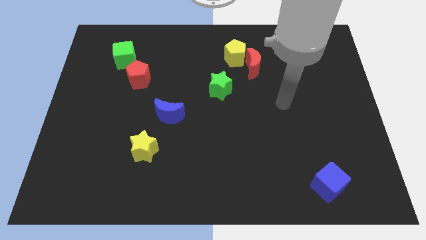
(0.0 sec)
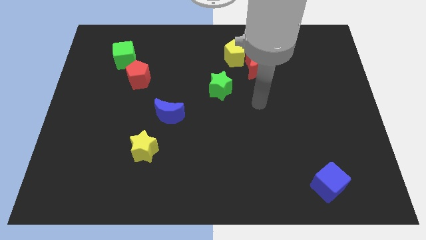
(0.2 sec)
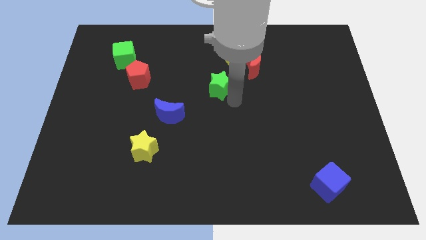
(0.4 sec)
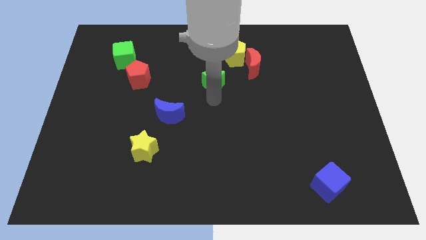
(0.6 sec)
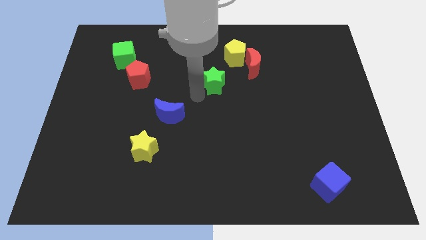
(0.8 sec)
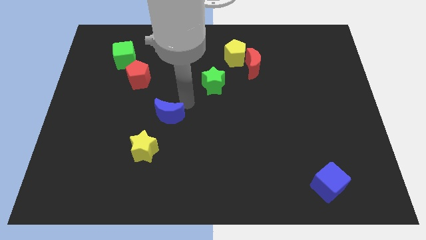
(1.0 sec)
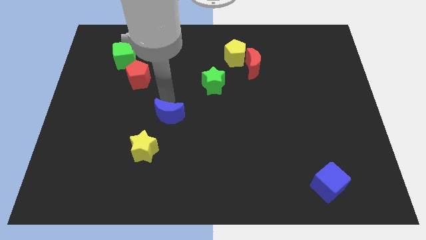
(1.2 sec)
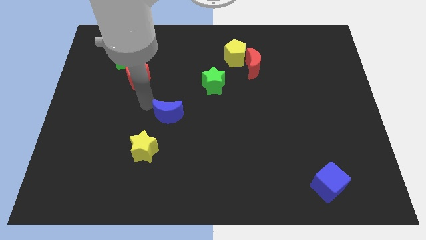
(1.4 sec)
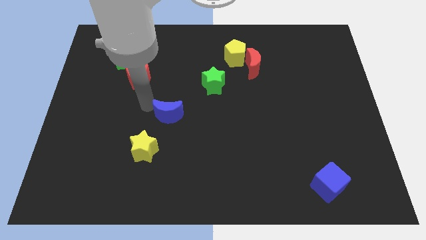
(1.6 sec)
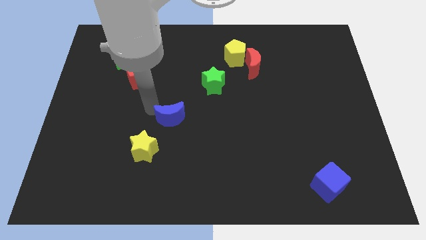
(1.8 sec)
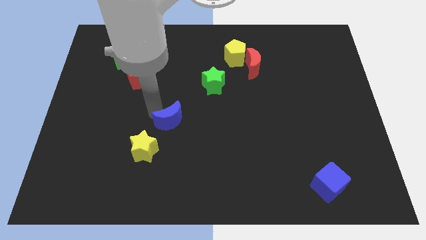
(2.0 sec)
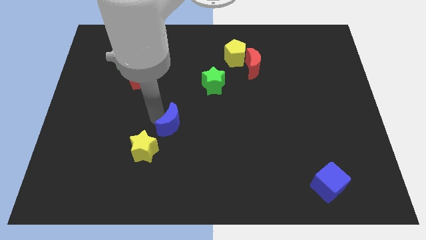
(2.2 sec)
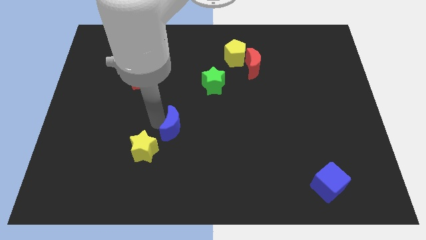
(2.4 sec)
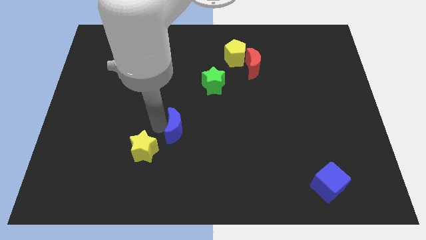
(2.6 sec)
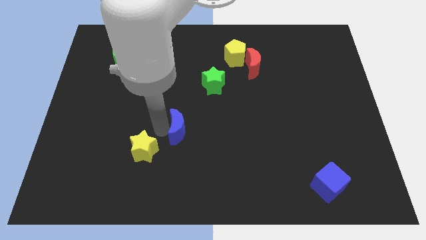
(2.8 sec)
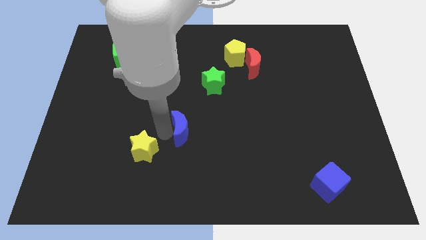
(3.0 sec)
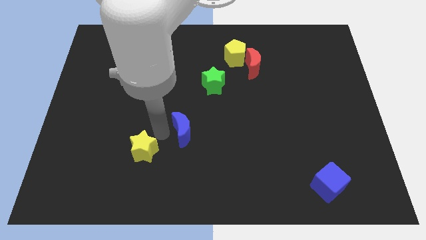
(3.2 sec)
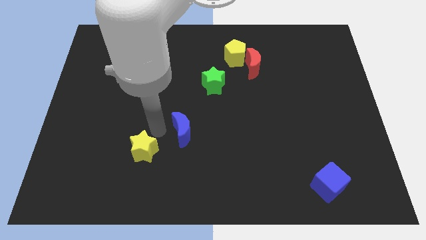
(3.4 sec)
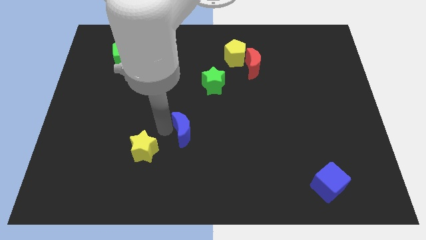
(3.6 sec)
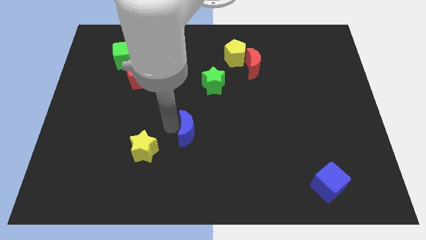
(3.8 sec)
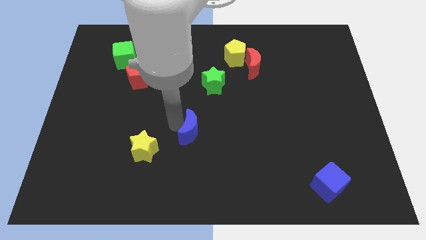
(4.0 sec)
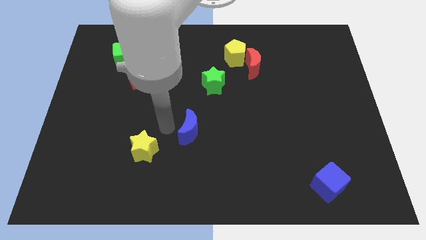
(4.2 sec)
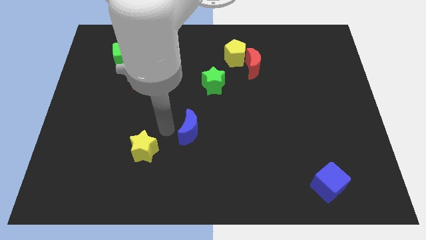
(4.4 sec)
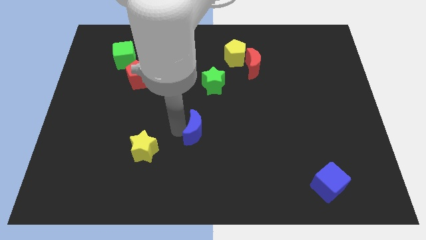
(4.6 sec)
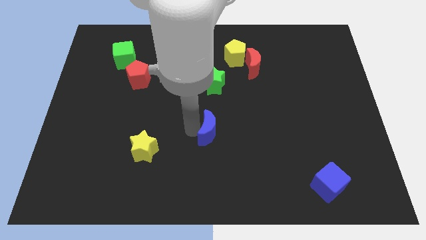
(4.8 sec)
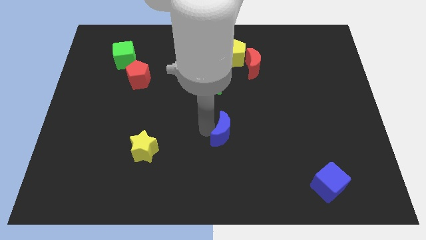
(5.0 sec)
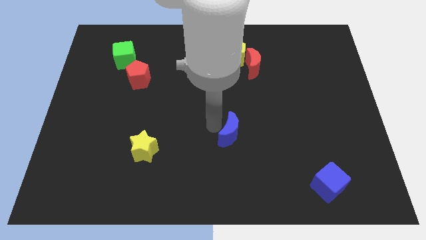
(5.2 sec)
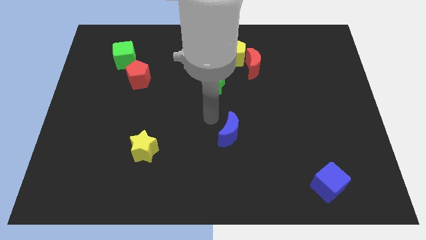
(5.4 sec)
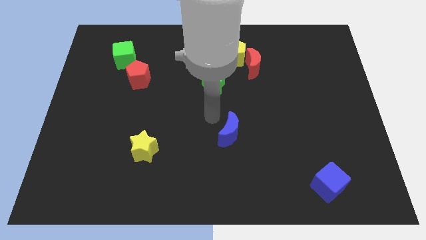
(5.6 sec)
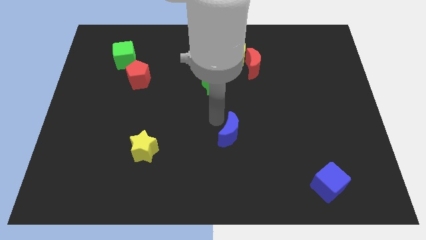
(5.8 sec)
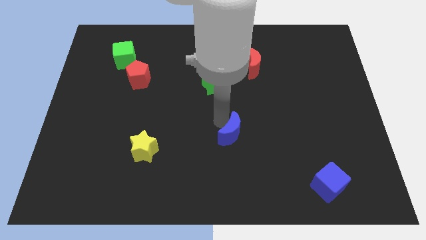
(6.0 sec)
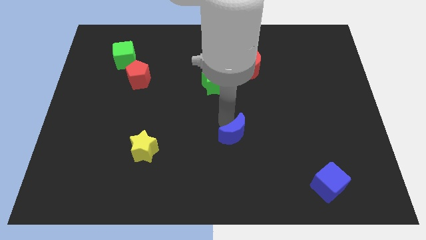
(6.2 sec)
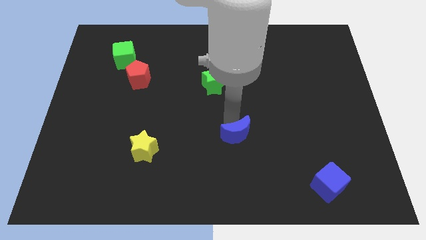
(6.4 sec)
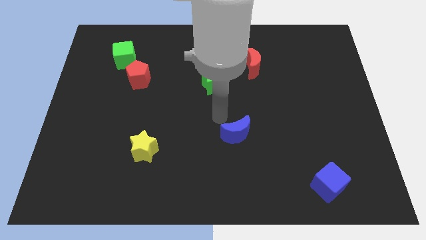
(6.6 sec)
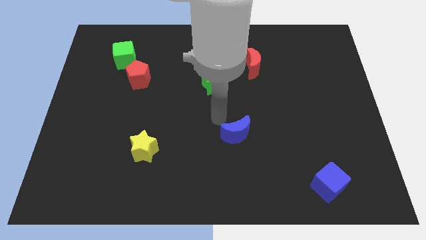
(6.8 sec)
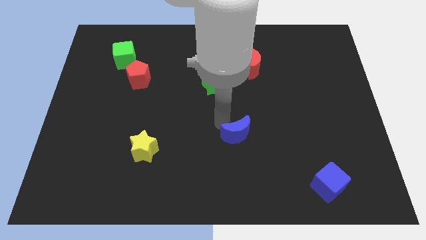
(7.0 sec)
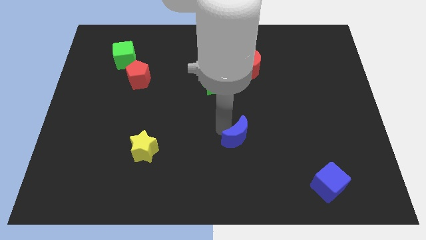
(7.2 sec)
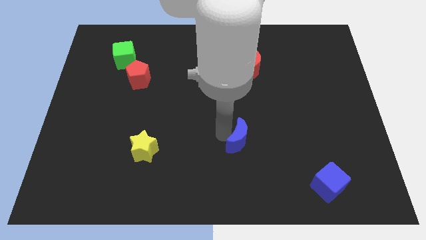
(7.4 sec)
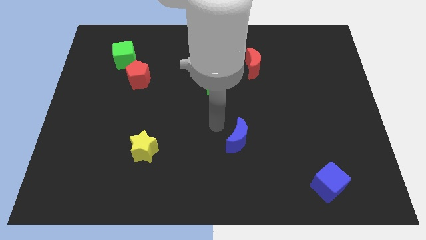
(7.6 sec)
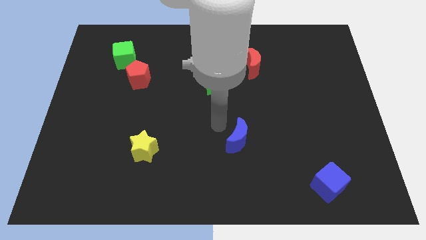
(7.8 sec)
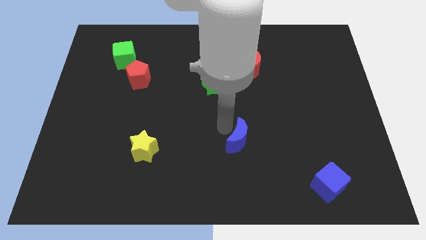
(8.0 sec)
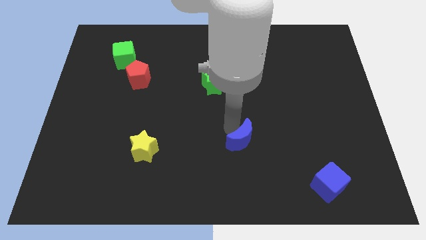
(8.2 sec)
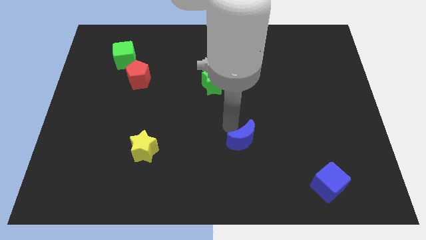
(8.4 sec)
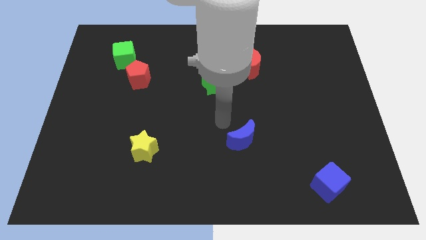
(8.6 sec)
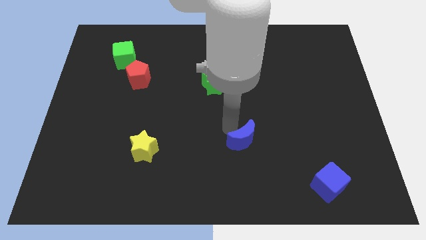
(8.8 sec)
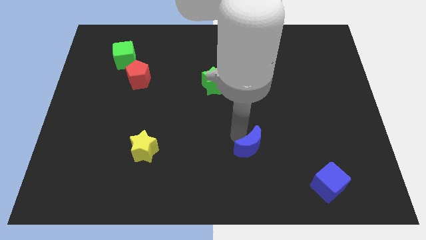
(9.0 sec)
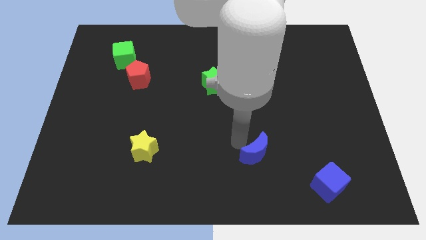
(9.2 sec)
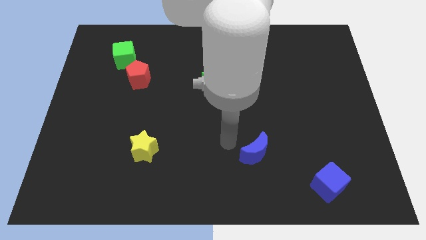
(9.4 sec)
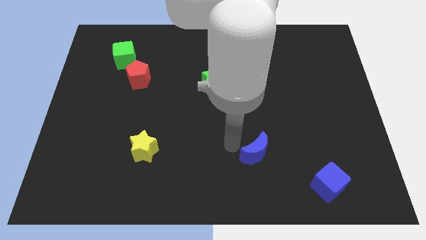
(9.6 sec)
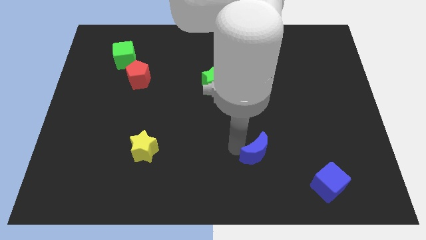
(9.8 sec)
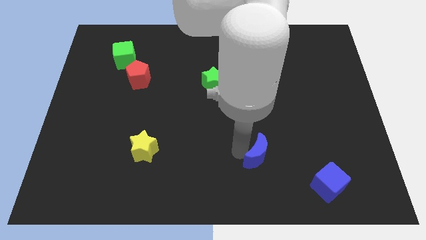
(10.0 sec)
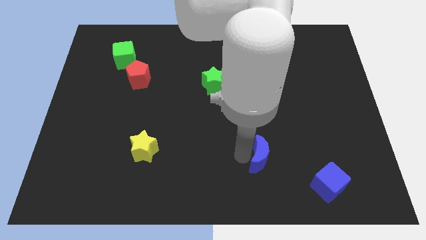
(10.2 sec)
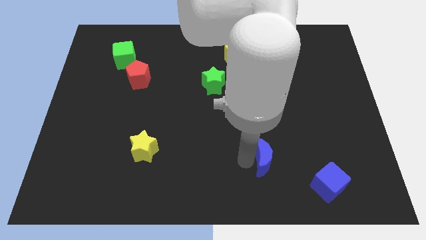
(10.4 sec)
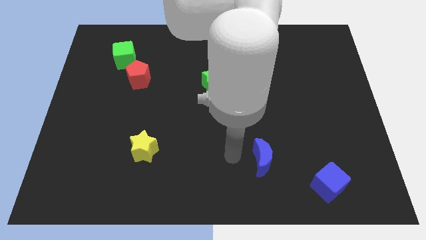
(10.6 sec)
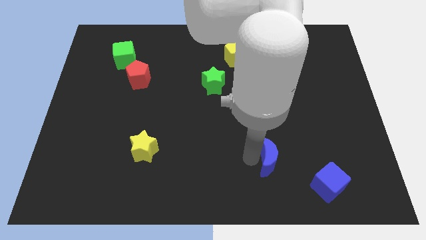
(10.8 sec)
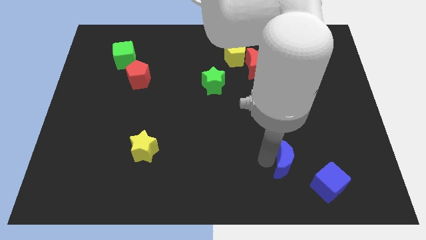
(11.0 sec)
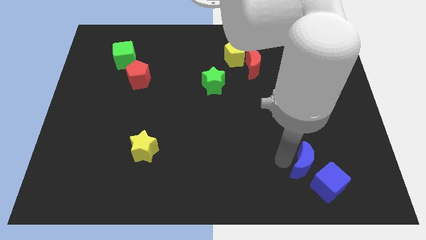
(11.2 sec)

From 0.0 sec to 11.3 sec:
push the blue moon close to the blue cube

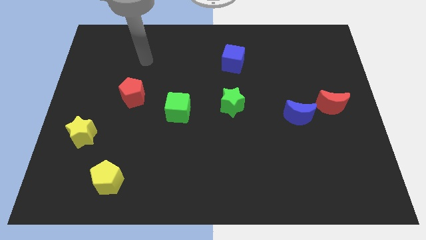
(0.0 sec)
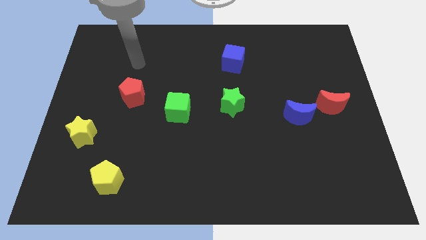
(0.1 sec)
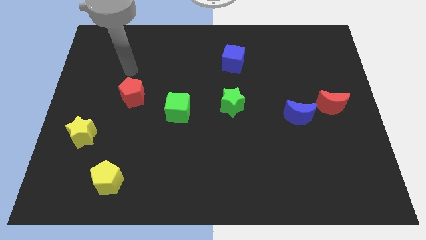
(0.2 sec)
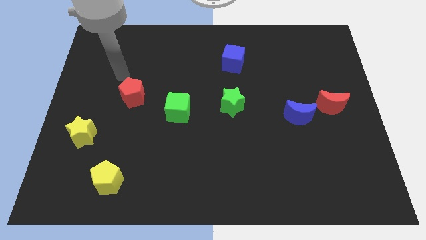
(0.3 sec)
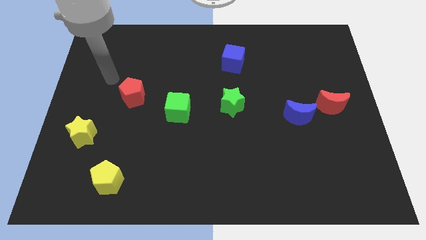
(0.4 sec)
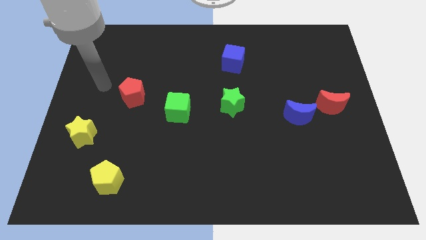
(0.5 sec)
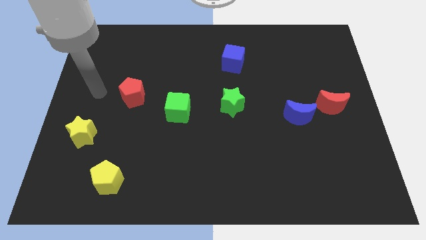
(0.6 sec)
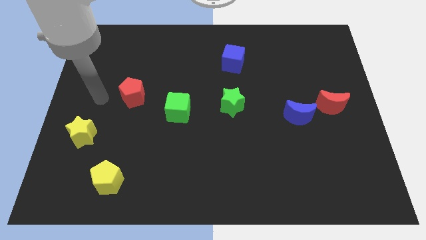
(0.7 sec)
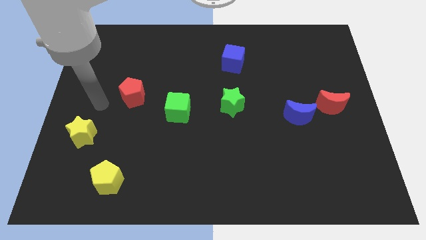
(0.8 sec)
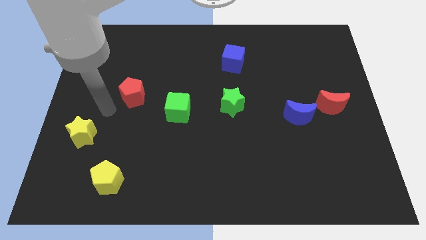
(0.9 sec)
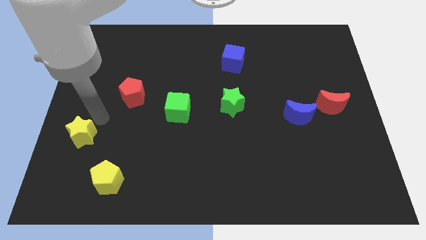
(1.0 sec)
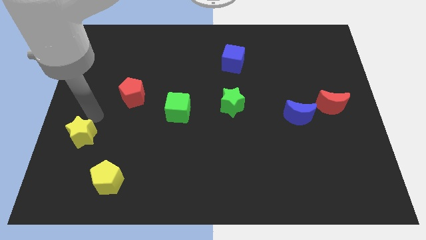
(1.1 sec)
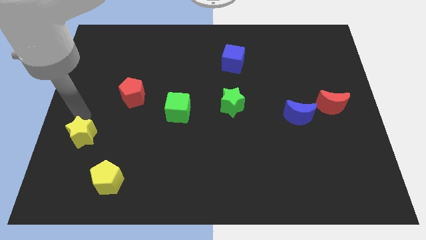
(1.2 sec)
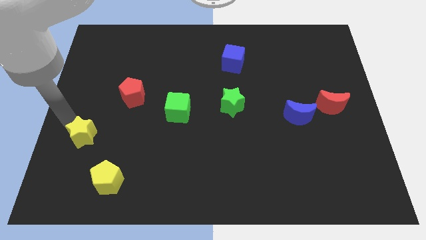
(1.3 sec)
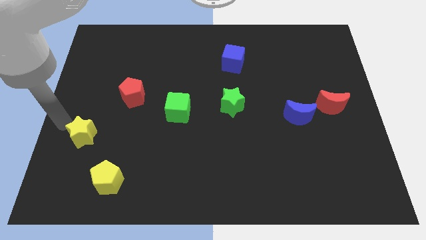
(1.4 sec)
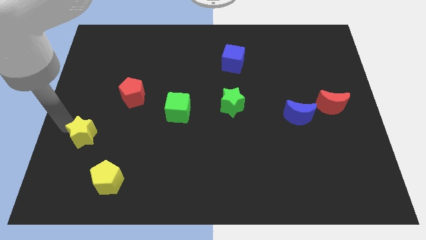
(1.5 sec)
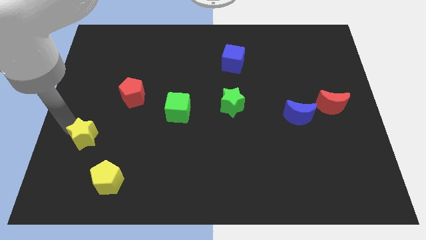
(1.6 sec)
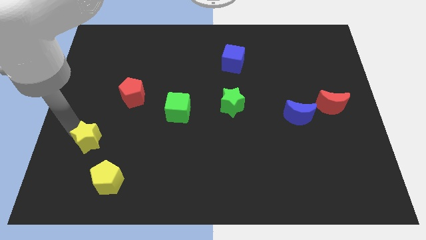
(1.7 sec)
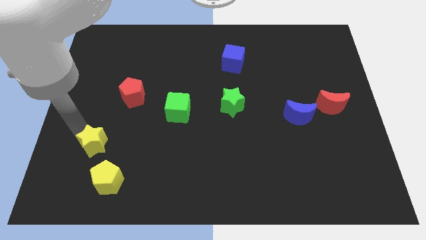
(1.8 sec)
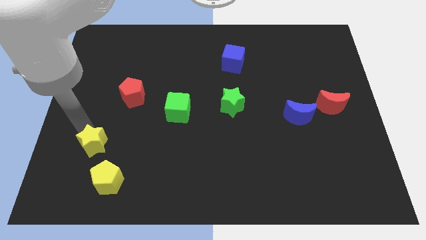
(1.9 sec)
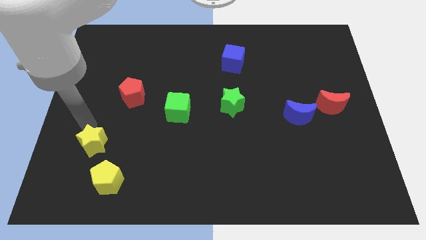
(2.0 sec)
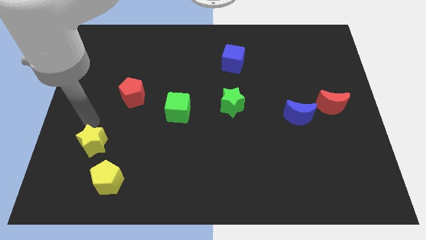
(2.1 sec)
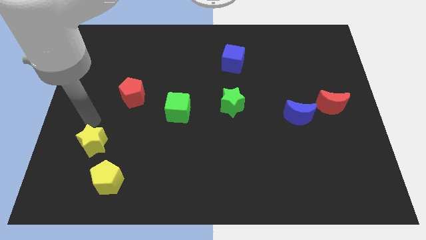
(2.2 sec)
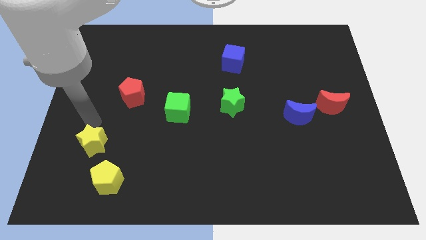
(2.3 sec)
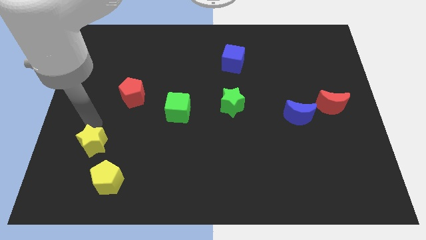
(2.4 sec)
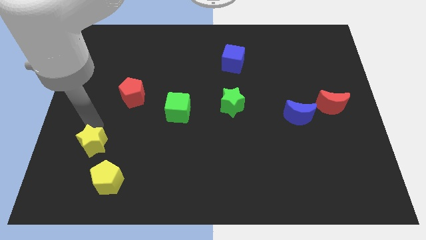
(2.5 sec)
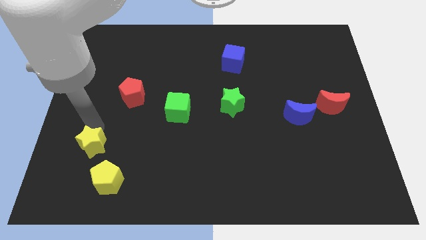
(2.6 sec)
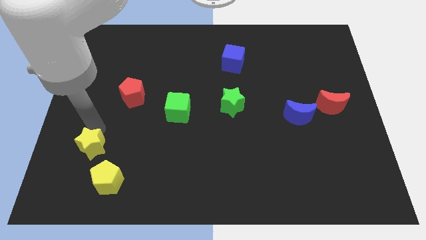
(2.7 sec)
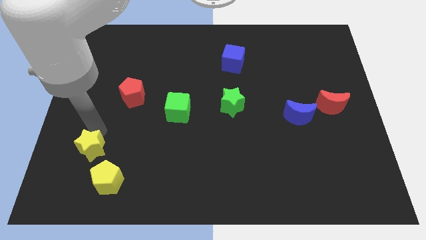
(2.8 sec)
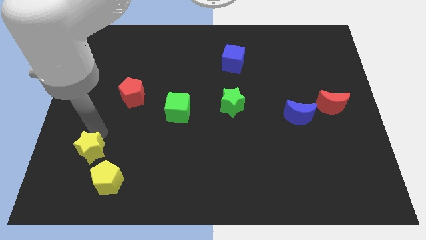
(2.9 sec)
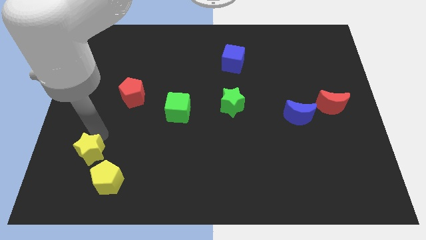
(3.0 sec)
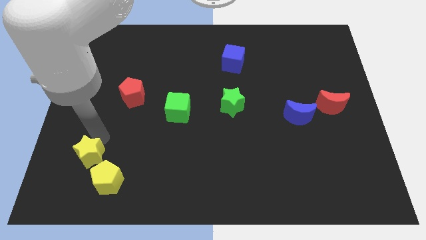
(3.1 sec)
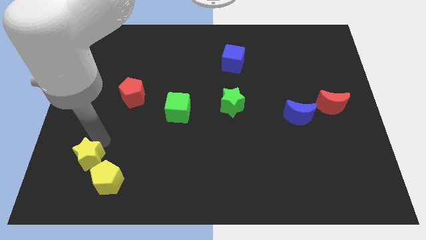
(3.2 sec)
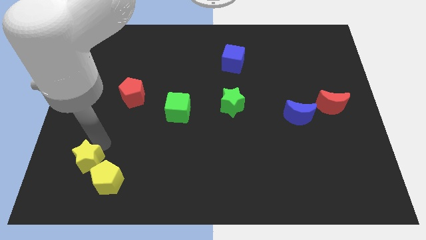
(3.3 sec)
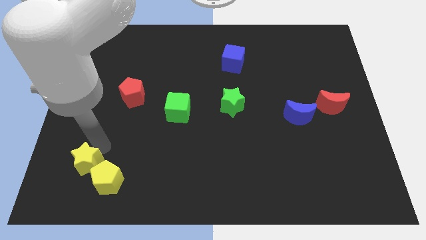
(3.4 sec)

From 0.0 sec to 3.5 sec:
push the yellow star to the yellow pentagon
